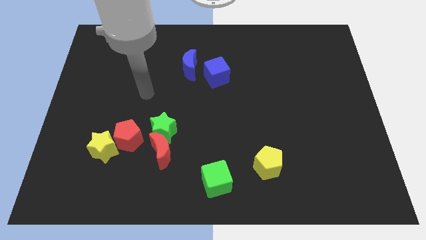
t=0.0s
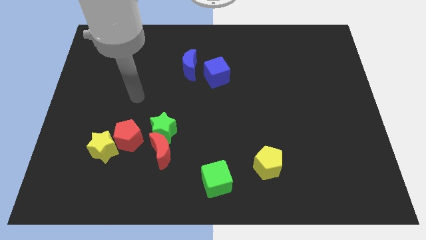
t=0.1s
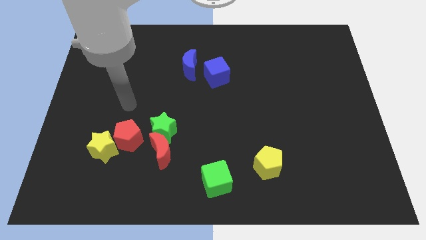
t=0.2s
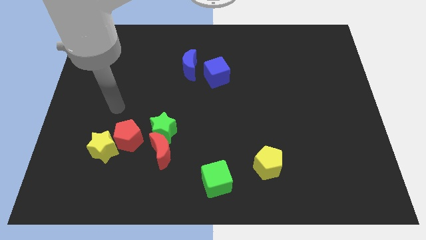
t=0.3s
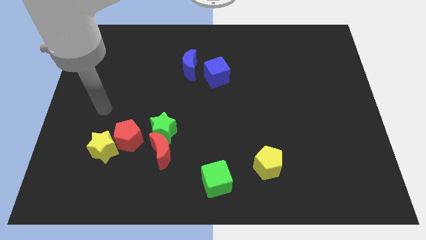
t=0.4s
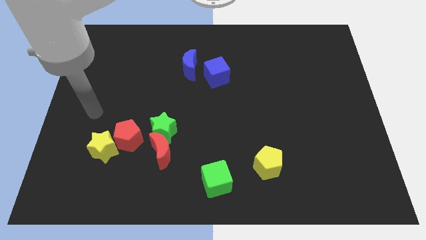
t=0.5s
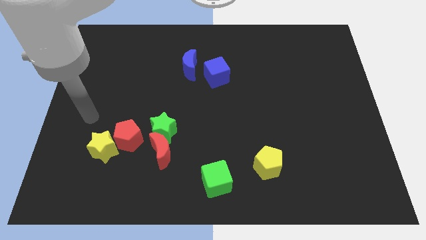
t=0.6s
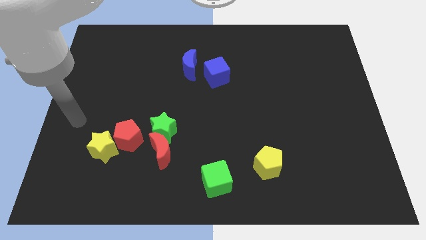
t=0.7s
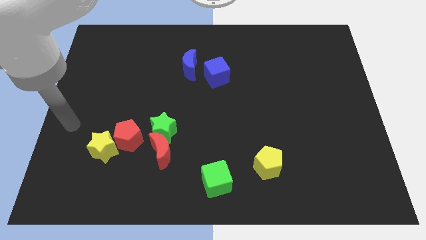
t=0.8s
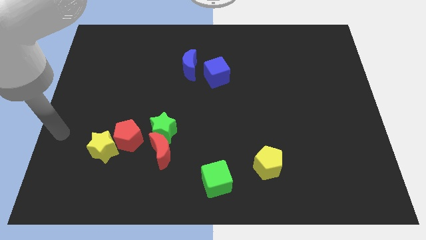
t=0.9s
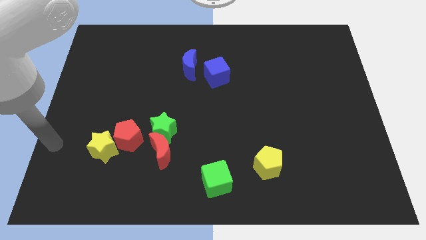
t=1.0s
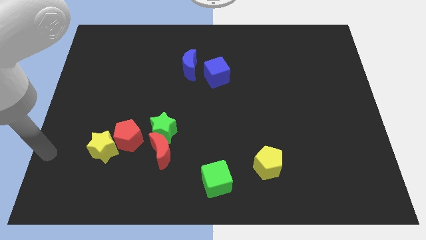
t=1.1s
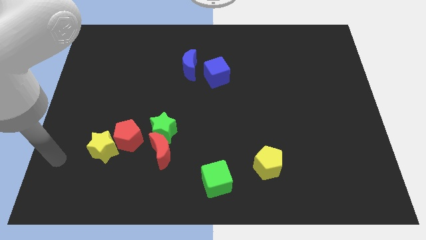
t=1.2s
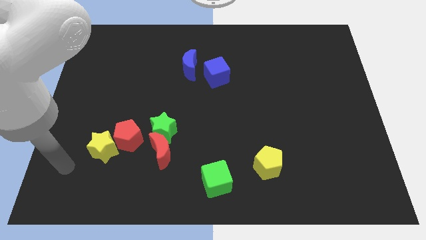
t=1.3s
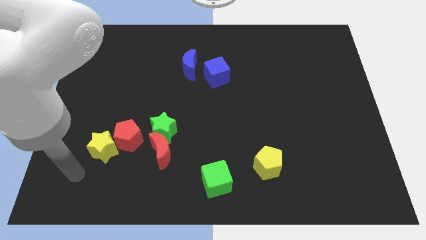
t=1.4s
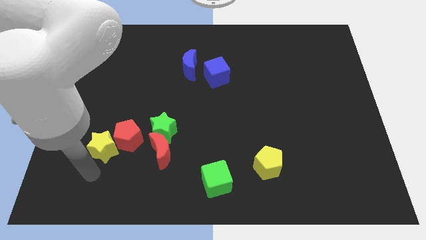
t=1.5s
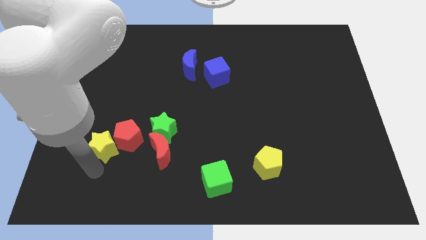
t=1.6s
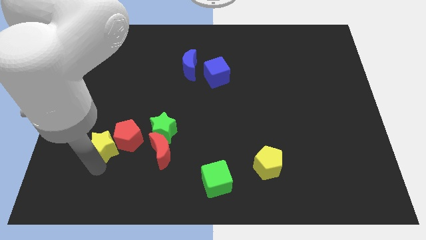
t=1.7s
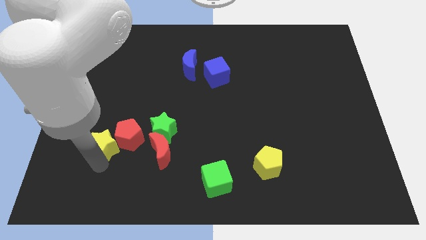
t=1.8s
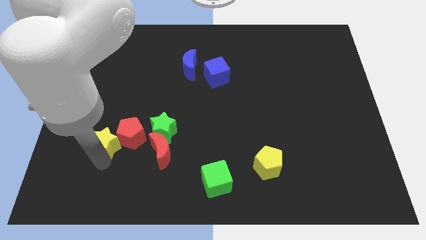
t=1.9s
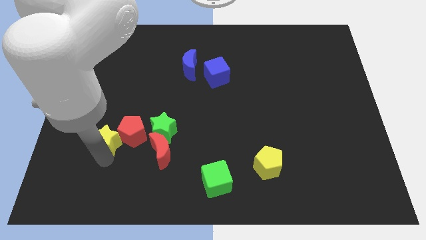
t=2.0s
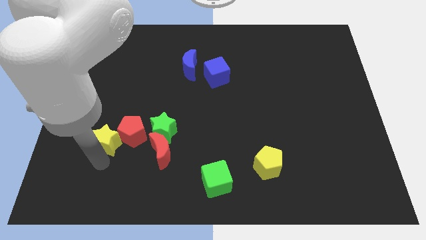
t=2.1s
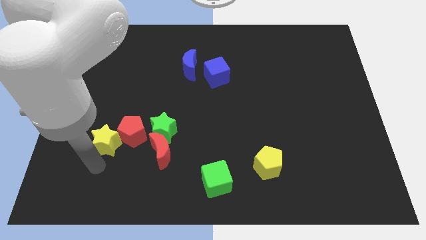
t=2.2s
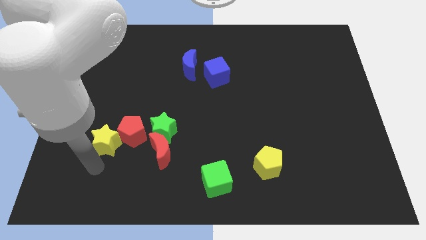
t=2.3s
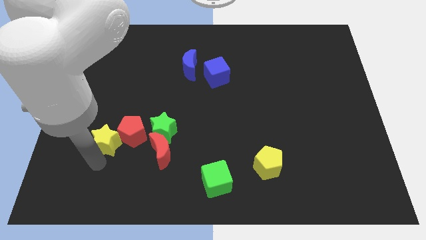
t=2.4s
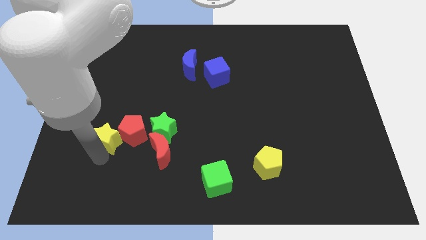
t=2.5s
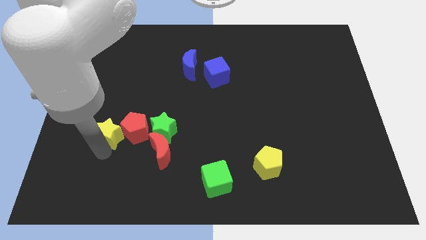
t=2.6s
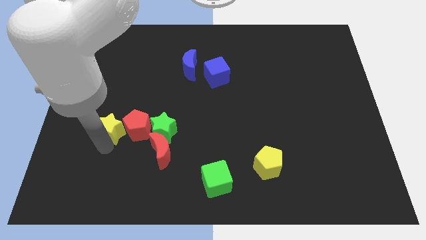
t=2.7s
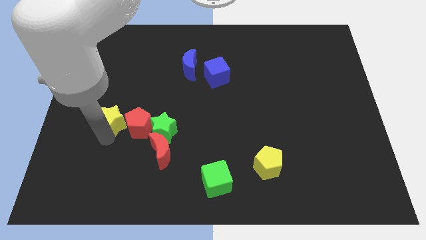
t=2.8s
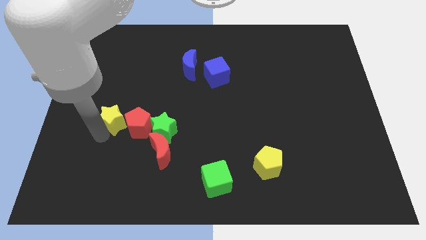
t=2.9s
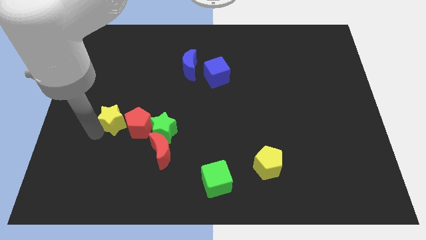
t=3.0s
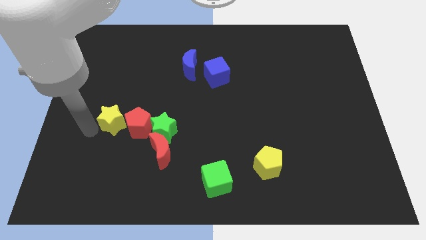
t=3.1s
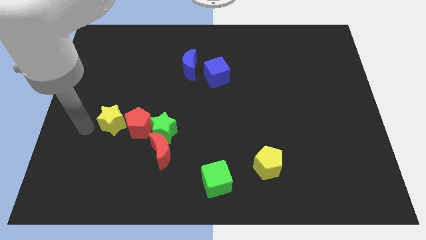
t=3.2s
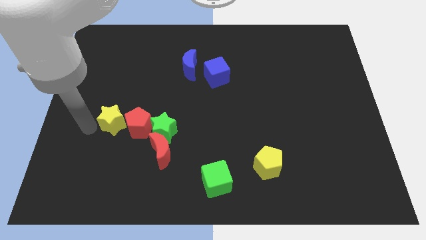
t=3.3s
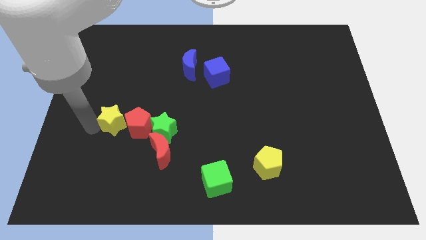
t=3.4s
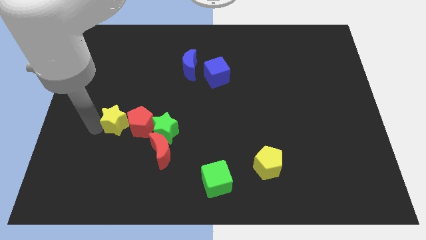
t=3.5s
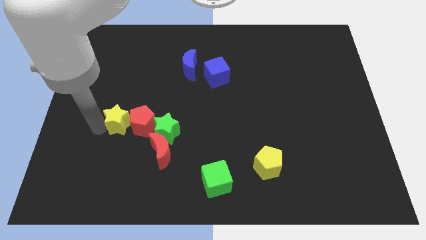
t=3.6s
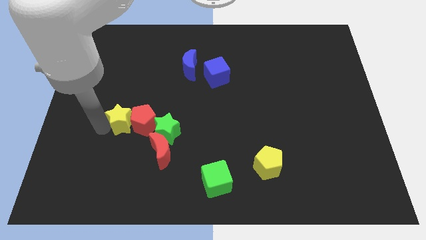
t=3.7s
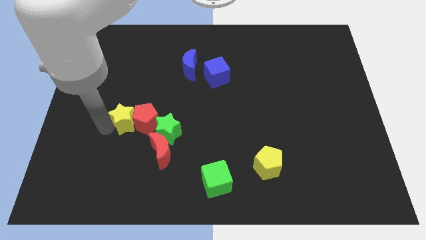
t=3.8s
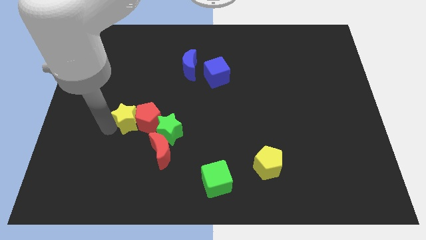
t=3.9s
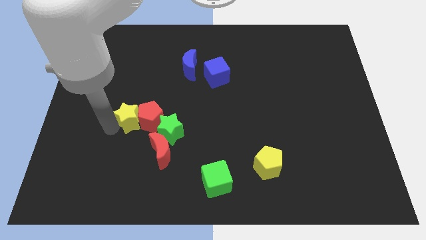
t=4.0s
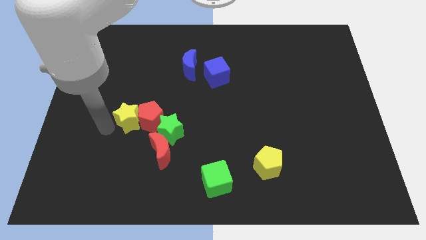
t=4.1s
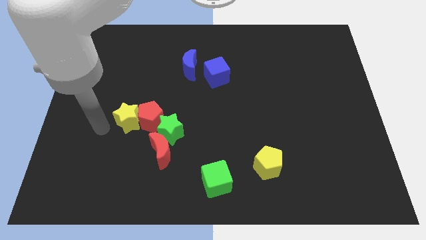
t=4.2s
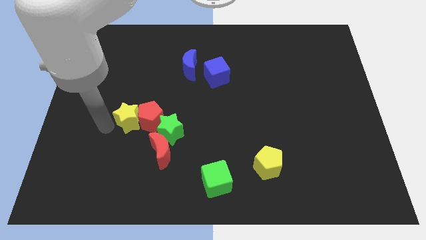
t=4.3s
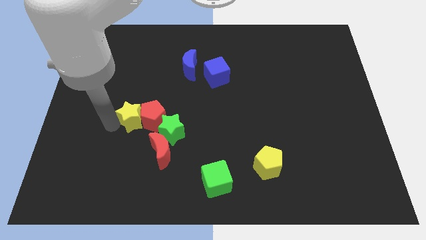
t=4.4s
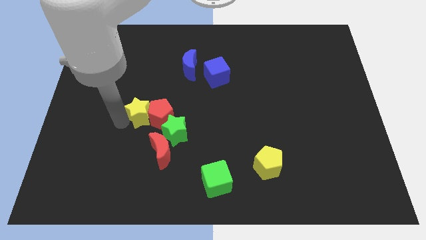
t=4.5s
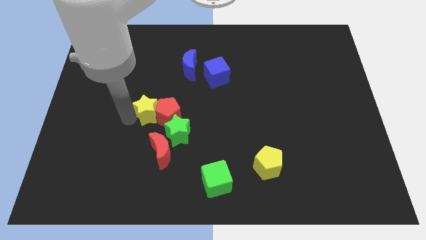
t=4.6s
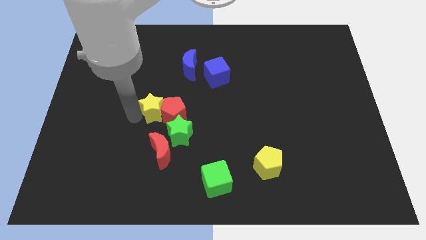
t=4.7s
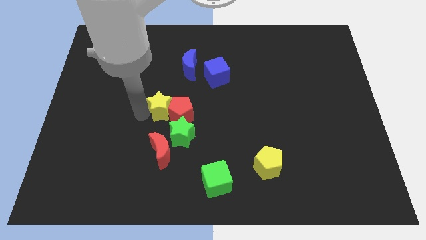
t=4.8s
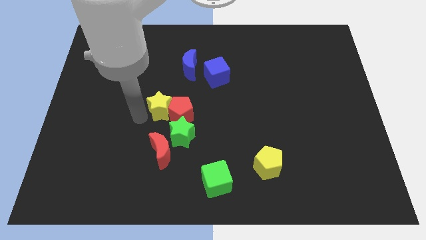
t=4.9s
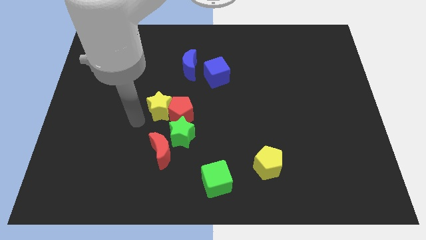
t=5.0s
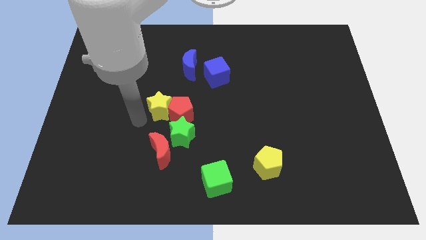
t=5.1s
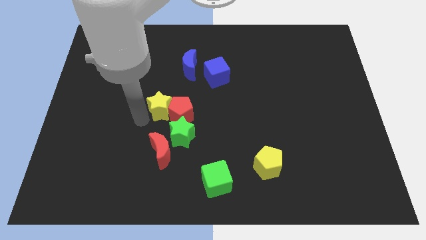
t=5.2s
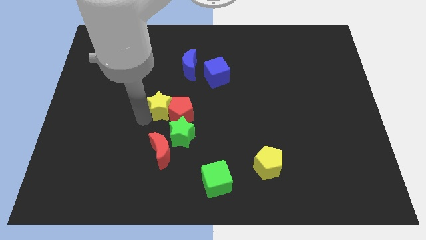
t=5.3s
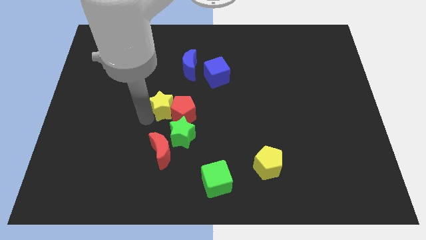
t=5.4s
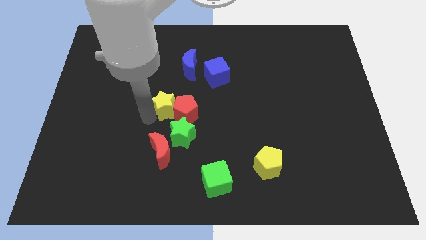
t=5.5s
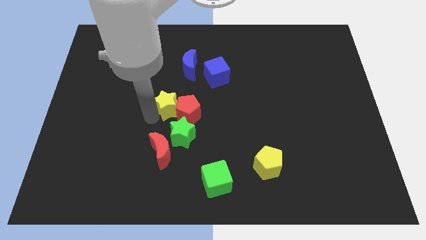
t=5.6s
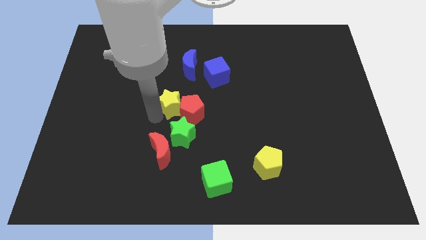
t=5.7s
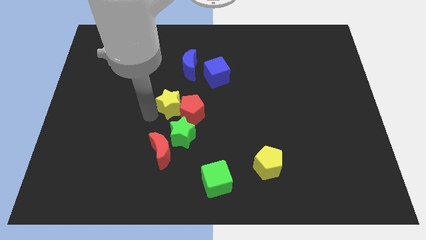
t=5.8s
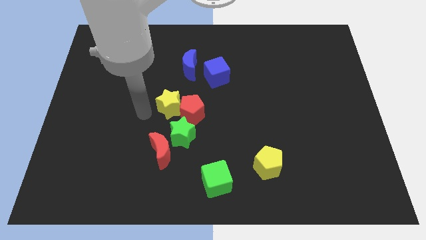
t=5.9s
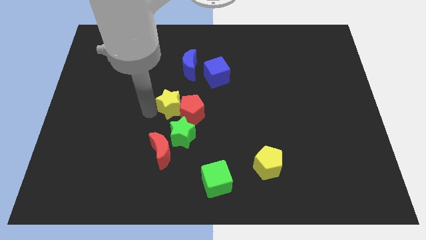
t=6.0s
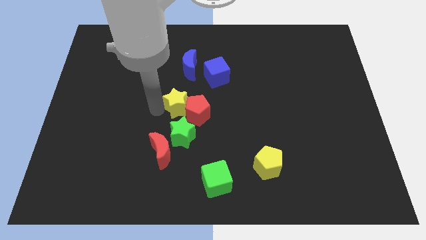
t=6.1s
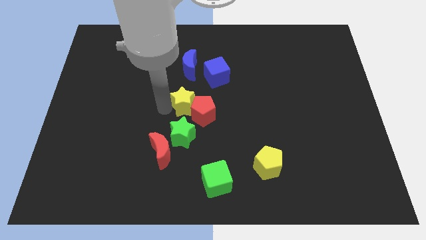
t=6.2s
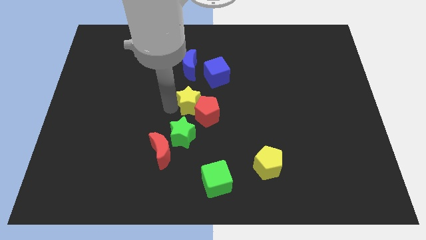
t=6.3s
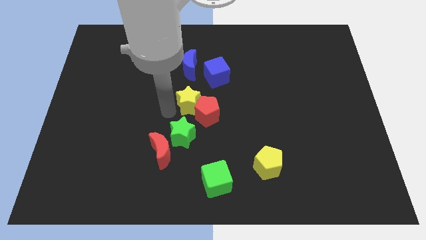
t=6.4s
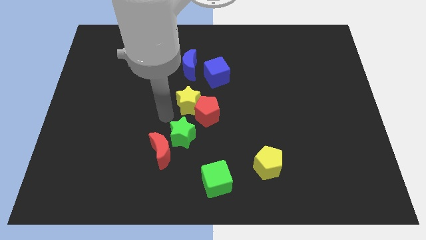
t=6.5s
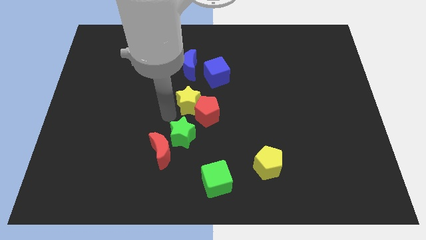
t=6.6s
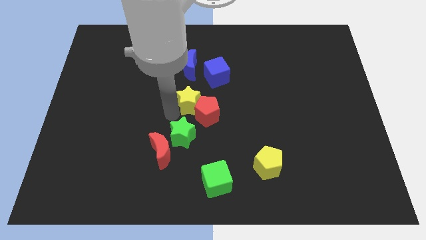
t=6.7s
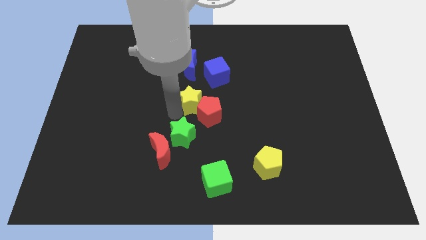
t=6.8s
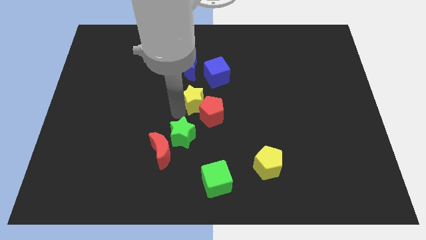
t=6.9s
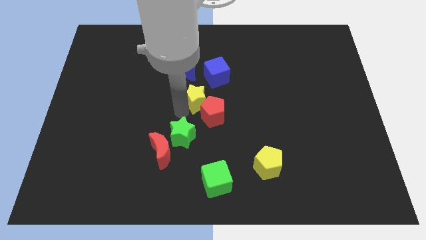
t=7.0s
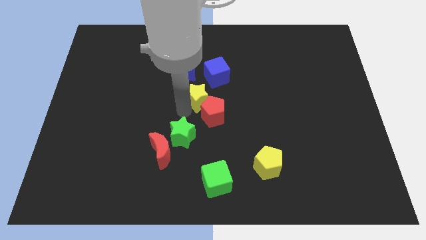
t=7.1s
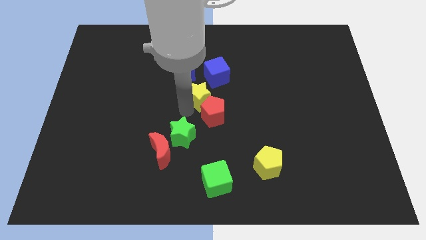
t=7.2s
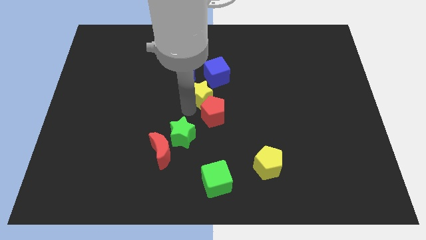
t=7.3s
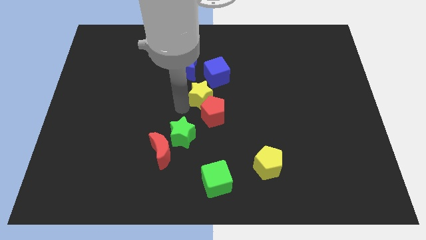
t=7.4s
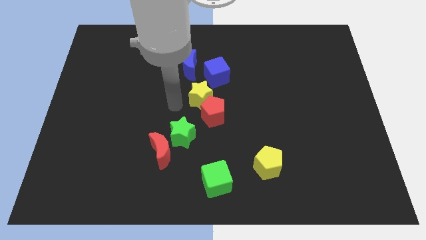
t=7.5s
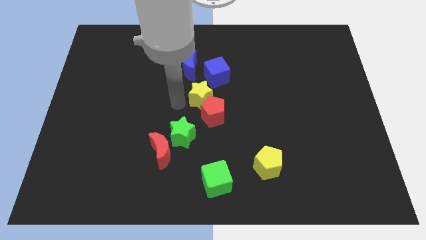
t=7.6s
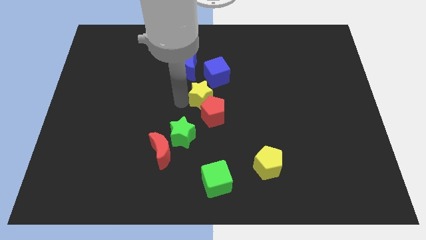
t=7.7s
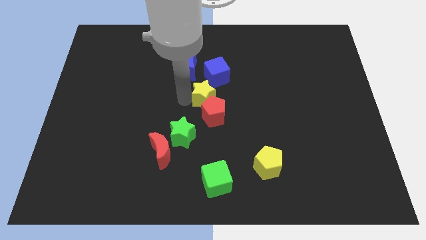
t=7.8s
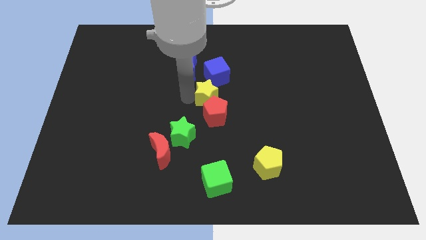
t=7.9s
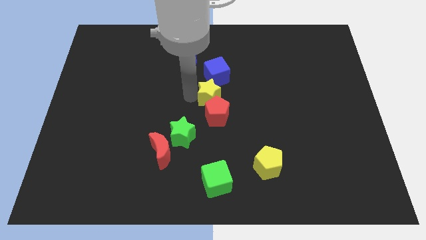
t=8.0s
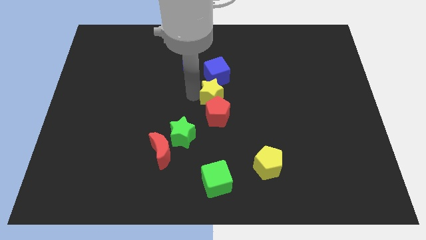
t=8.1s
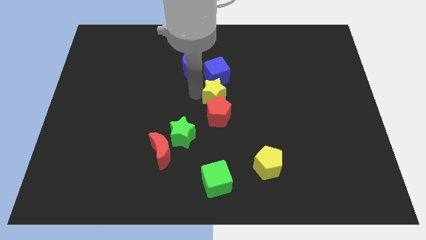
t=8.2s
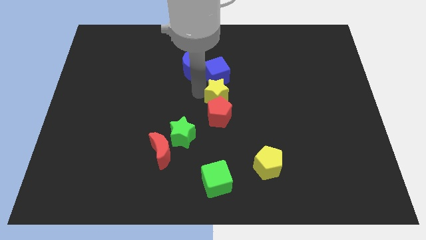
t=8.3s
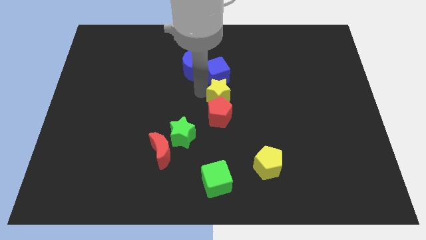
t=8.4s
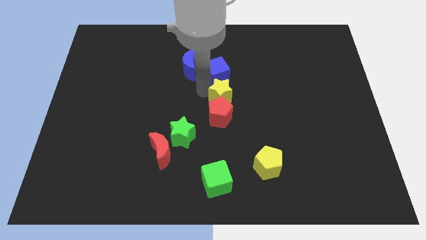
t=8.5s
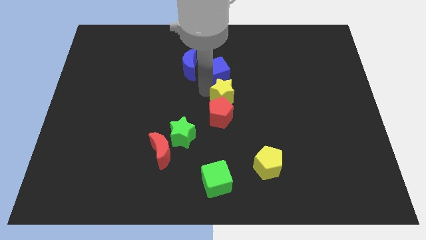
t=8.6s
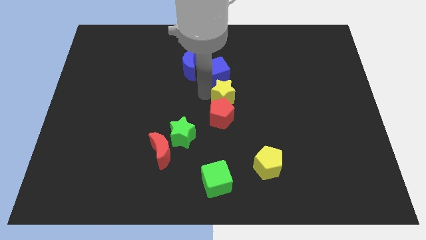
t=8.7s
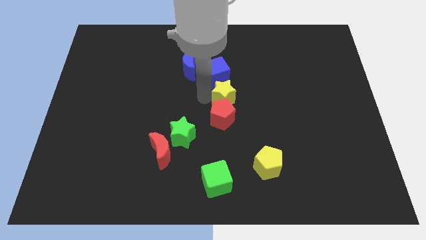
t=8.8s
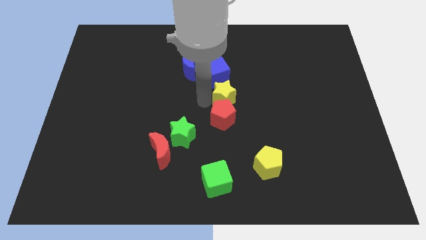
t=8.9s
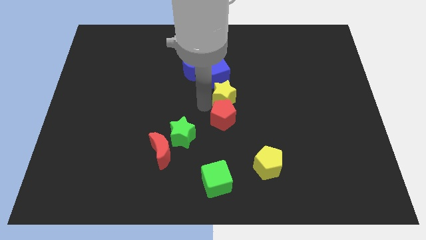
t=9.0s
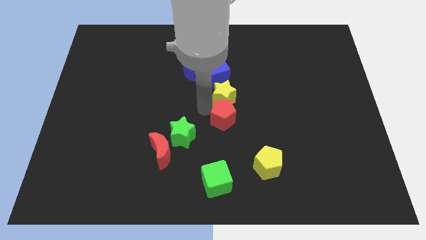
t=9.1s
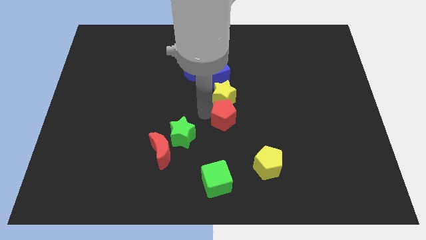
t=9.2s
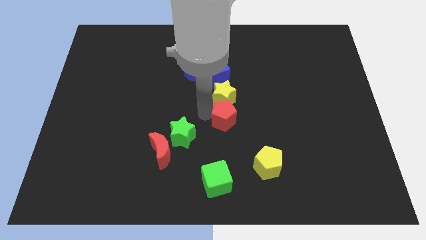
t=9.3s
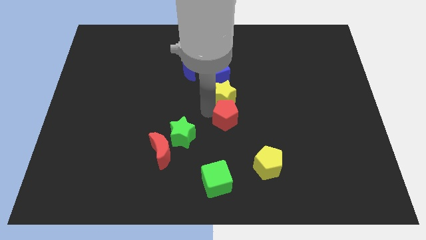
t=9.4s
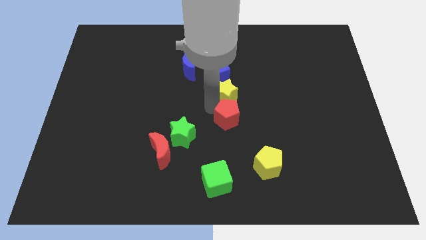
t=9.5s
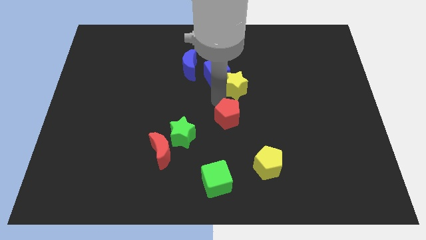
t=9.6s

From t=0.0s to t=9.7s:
move the yellow star to the right side of the blue cube
